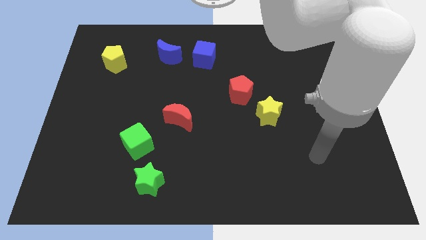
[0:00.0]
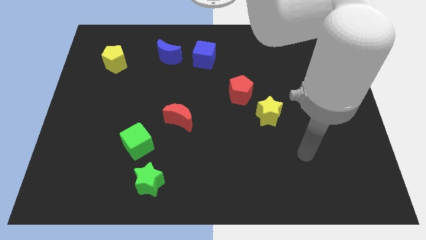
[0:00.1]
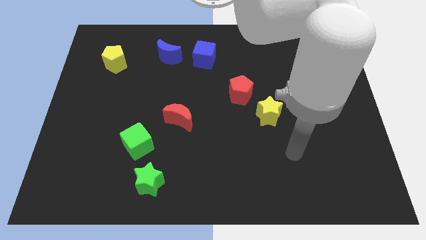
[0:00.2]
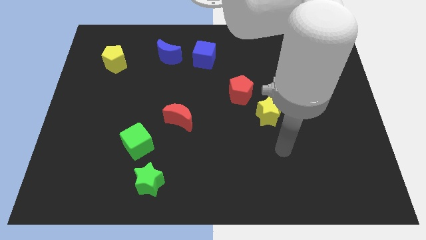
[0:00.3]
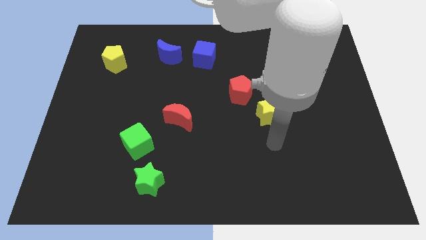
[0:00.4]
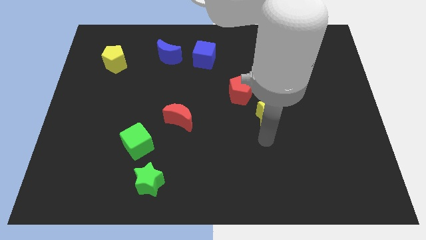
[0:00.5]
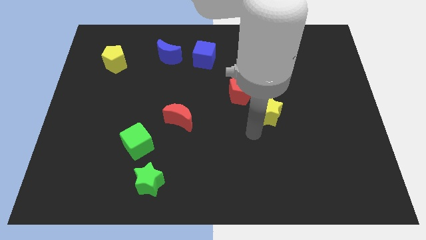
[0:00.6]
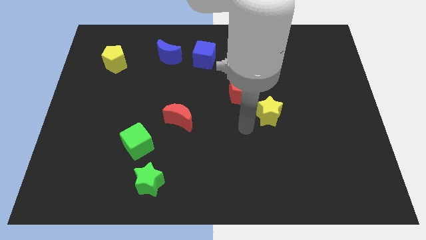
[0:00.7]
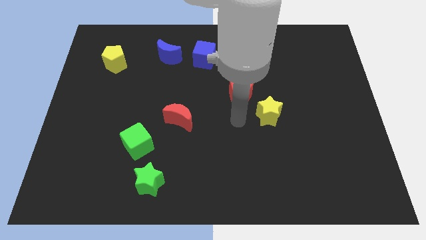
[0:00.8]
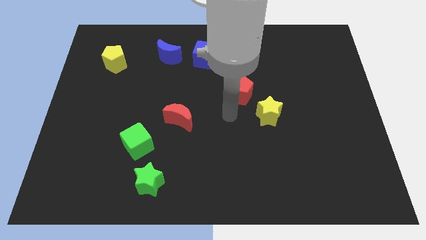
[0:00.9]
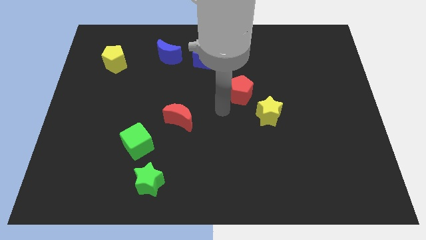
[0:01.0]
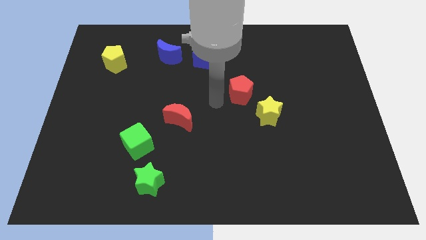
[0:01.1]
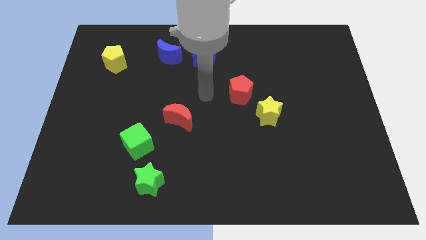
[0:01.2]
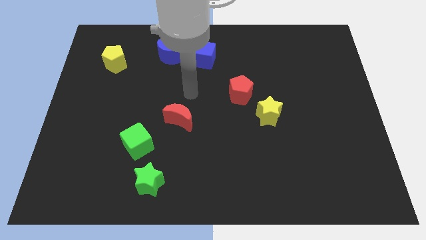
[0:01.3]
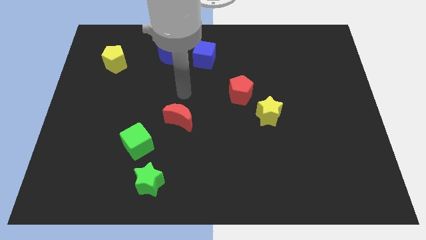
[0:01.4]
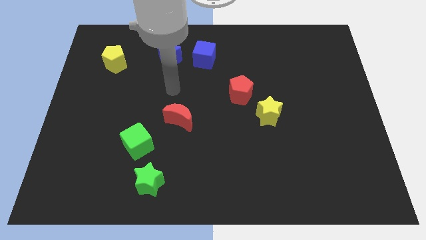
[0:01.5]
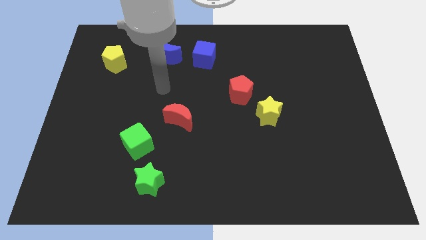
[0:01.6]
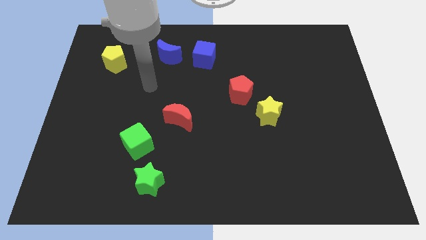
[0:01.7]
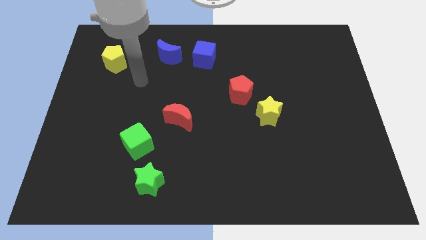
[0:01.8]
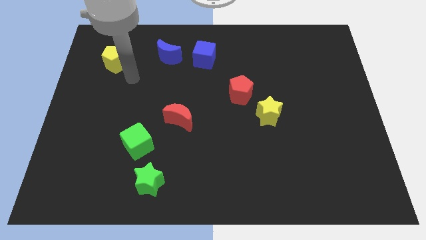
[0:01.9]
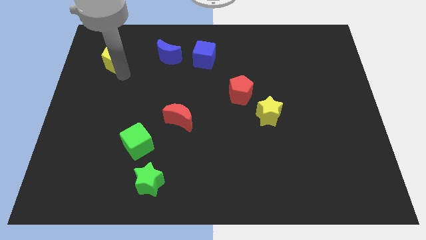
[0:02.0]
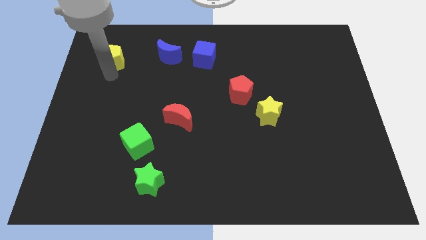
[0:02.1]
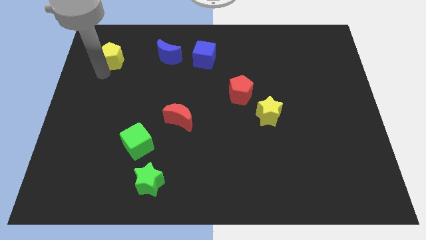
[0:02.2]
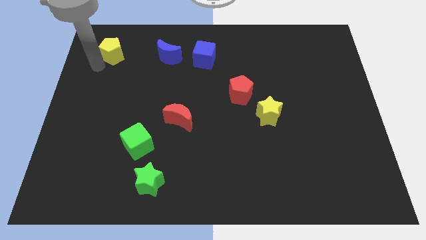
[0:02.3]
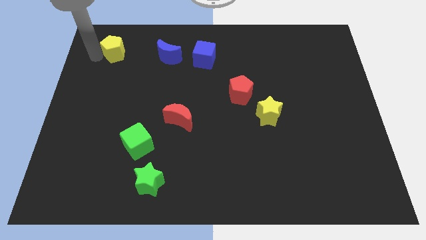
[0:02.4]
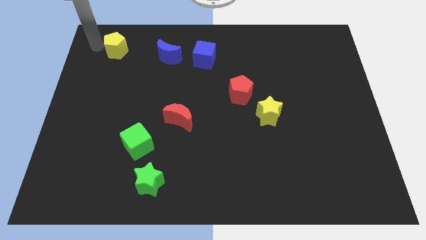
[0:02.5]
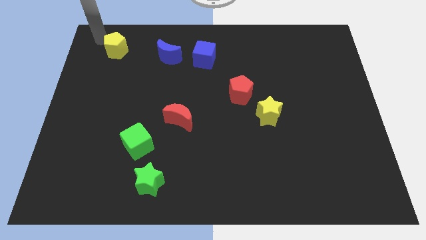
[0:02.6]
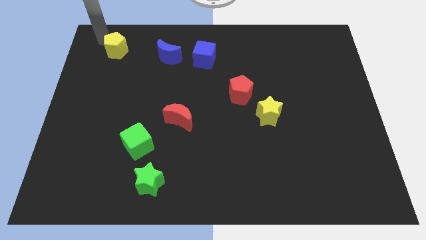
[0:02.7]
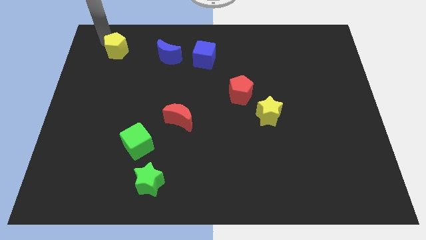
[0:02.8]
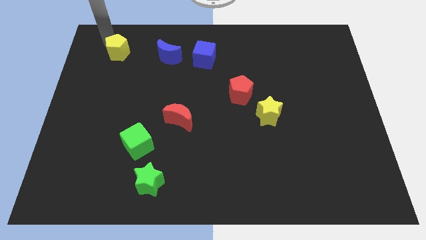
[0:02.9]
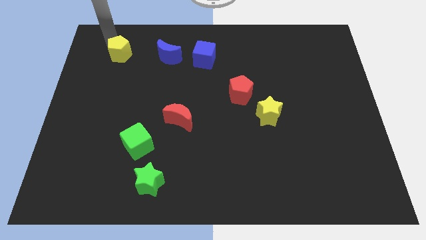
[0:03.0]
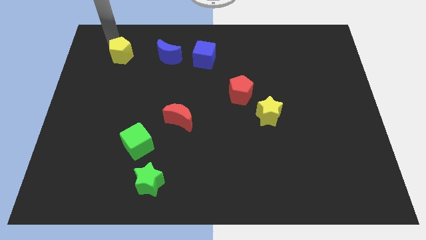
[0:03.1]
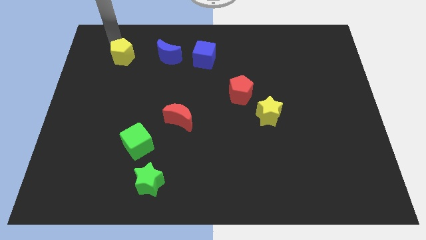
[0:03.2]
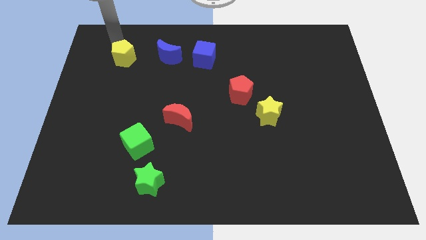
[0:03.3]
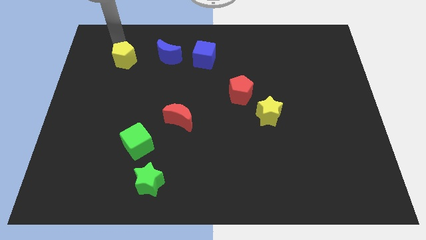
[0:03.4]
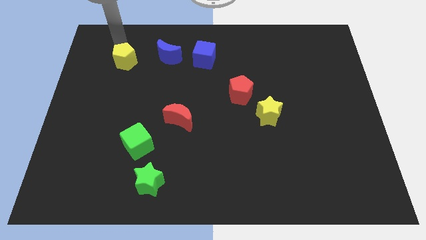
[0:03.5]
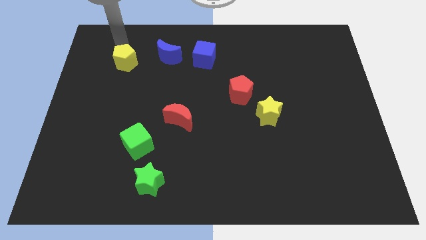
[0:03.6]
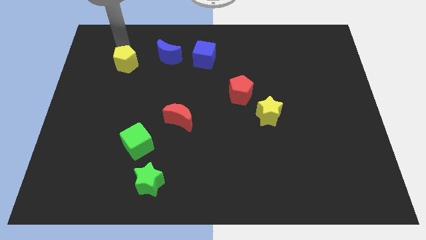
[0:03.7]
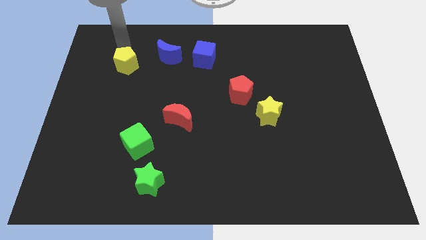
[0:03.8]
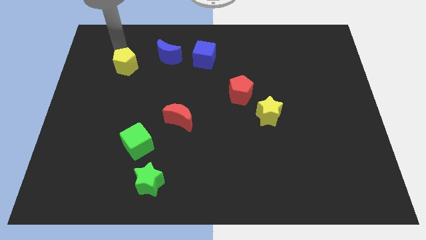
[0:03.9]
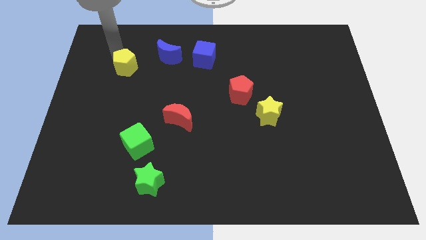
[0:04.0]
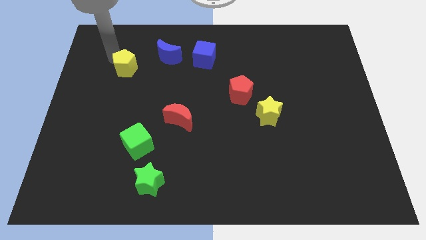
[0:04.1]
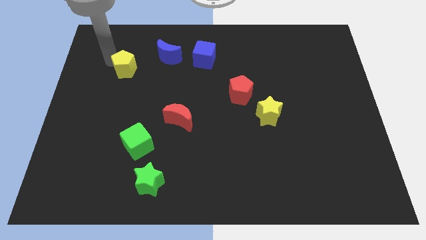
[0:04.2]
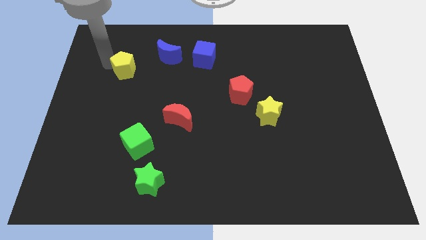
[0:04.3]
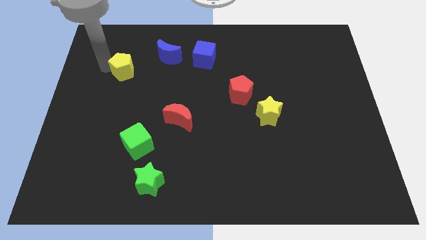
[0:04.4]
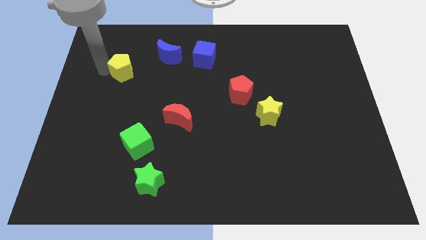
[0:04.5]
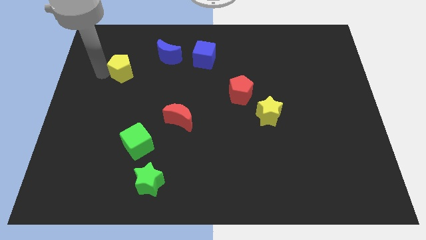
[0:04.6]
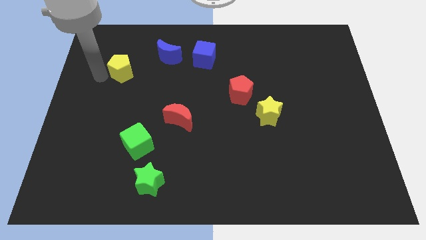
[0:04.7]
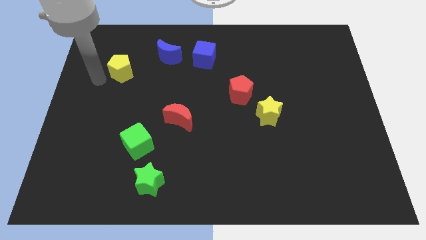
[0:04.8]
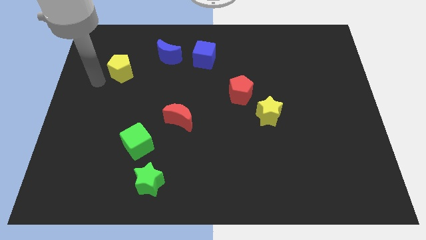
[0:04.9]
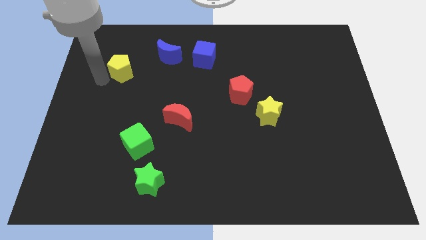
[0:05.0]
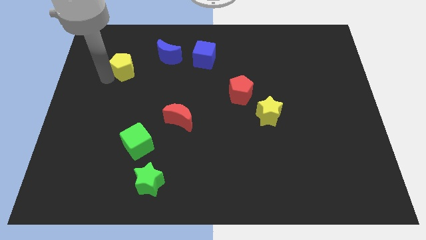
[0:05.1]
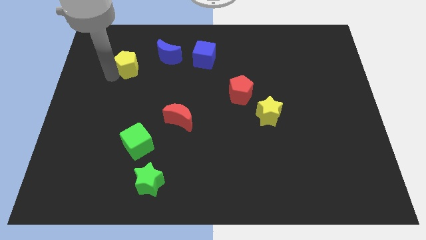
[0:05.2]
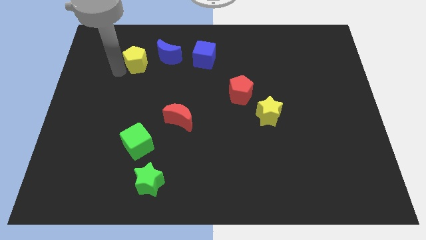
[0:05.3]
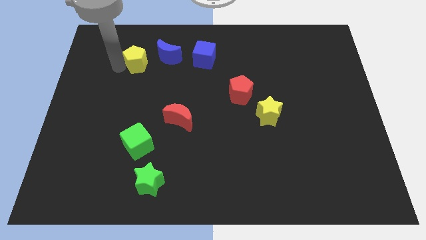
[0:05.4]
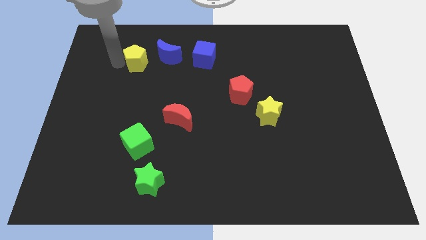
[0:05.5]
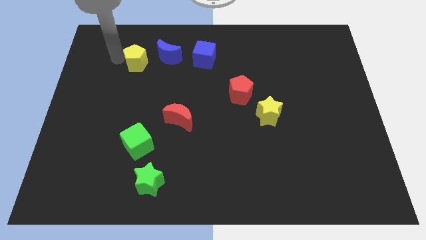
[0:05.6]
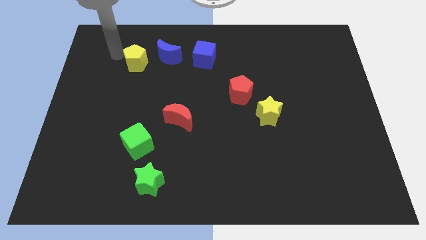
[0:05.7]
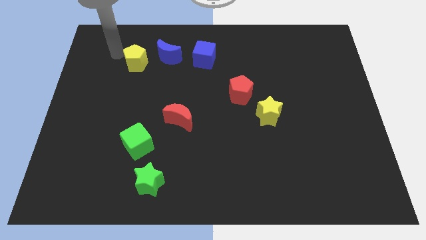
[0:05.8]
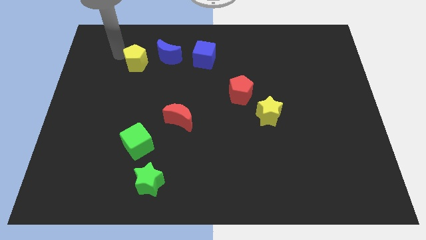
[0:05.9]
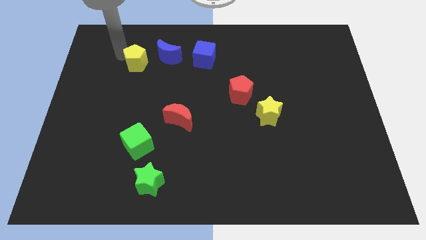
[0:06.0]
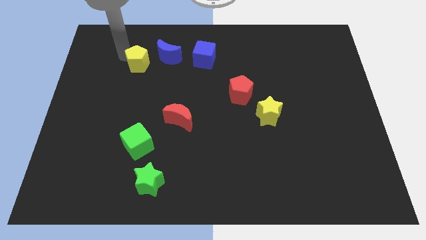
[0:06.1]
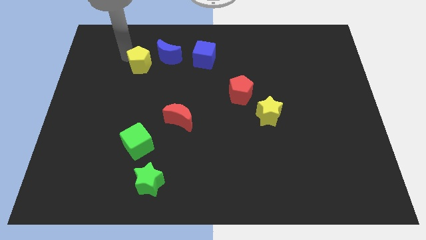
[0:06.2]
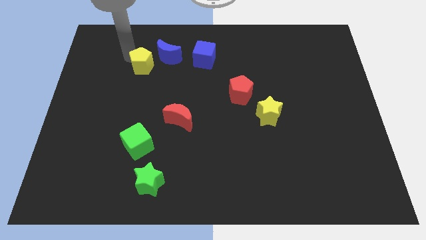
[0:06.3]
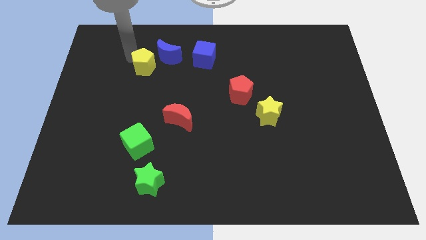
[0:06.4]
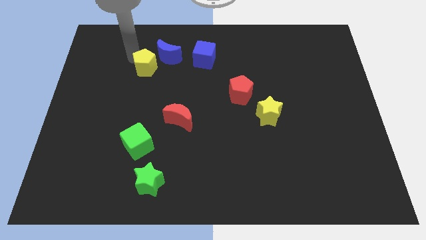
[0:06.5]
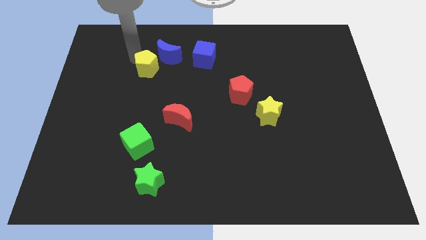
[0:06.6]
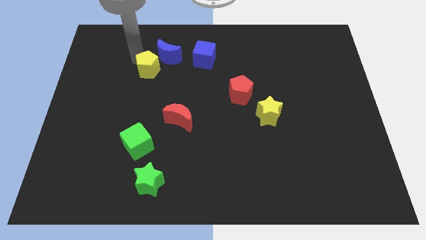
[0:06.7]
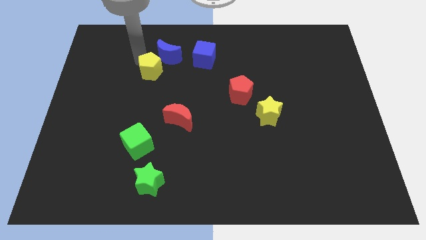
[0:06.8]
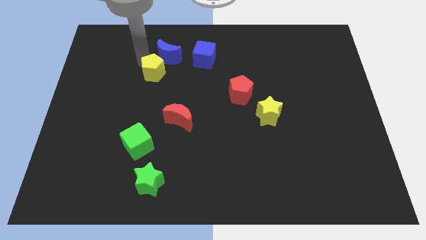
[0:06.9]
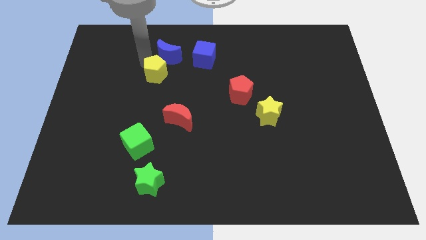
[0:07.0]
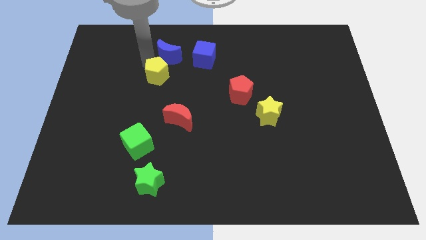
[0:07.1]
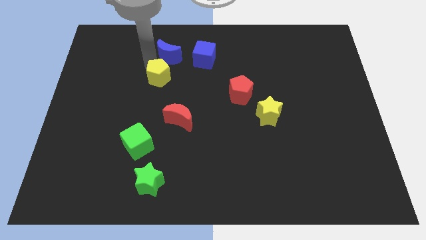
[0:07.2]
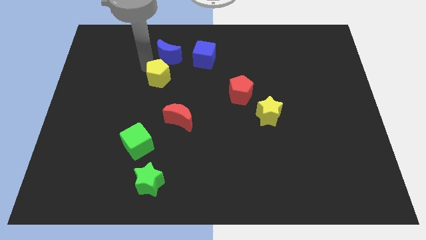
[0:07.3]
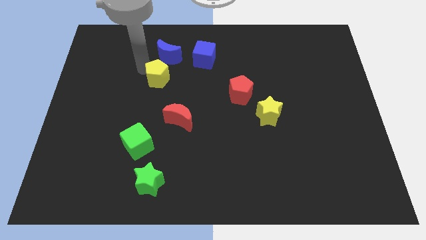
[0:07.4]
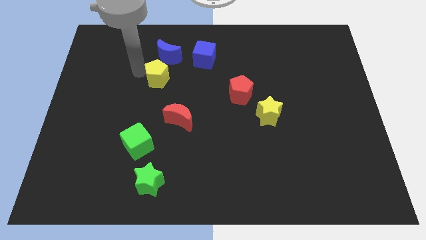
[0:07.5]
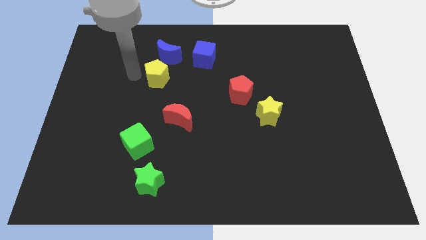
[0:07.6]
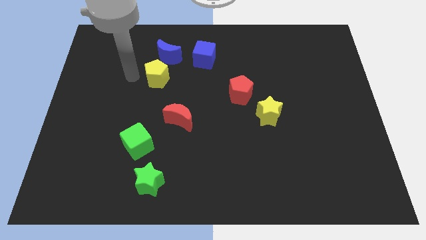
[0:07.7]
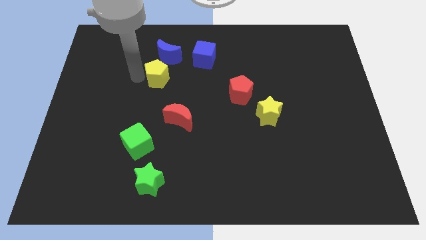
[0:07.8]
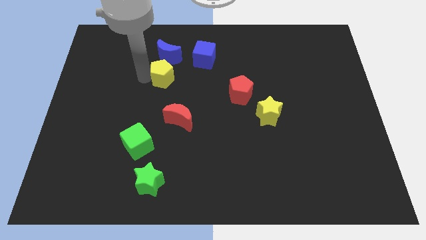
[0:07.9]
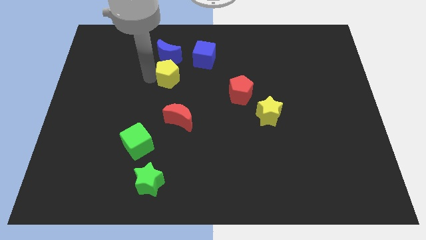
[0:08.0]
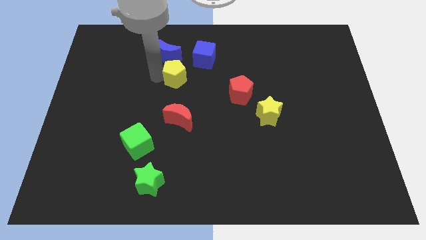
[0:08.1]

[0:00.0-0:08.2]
slide the yellow pentagon to the center
